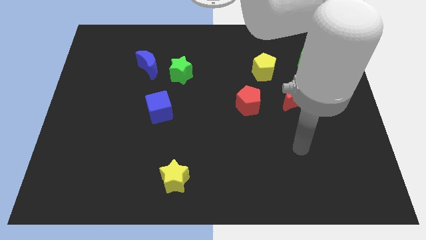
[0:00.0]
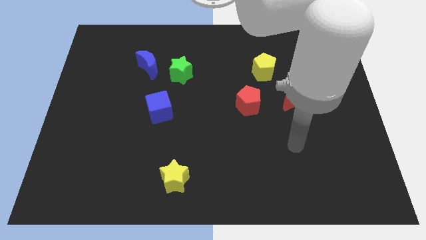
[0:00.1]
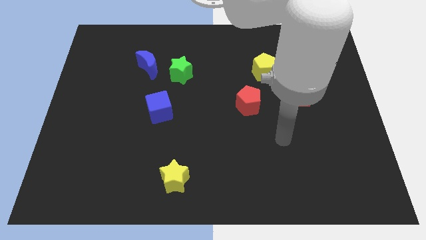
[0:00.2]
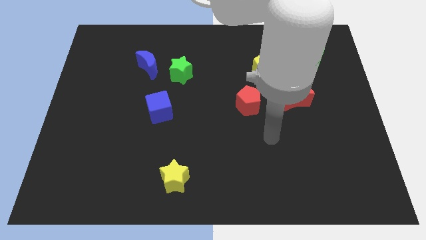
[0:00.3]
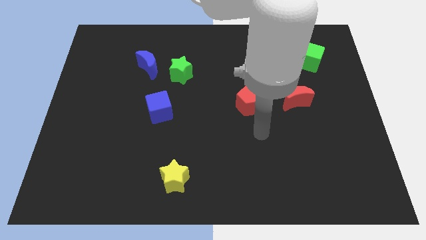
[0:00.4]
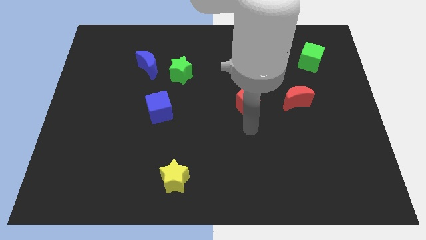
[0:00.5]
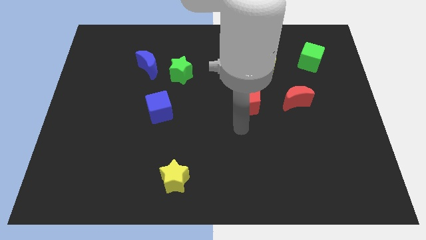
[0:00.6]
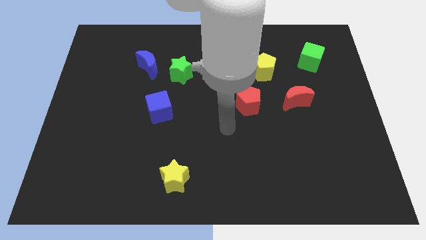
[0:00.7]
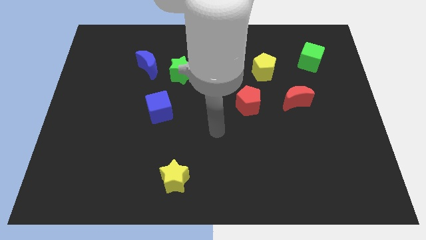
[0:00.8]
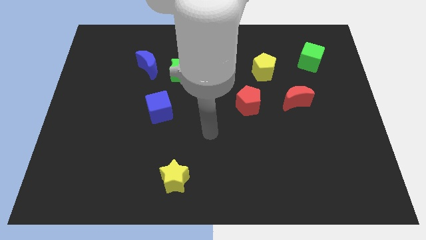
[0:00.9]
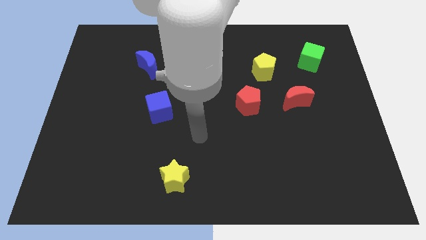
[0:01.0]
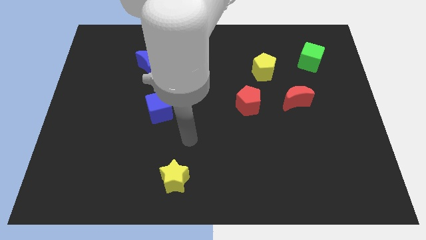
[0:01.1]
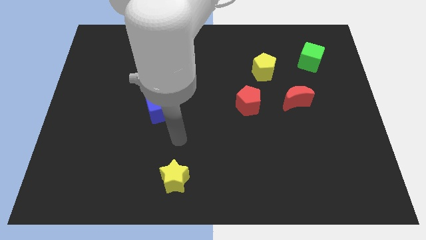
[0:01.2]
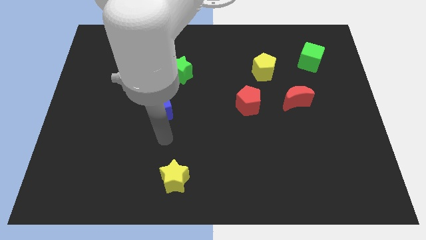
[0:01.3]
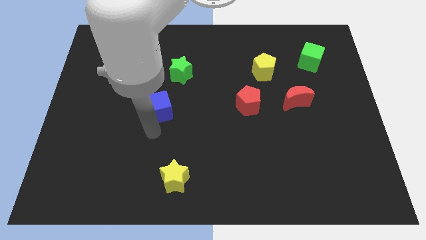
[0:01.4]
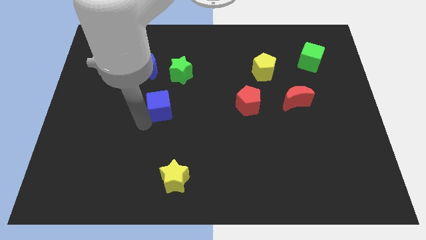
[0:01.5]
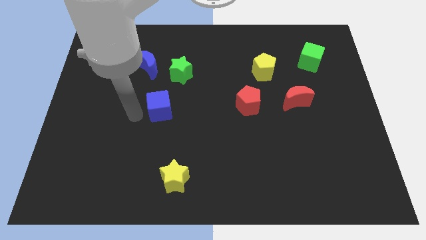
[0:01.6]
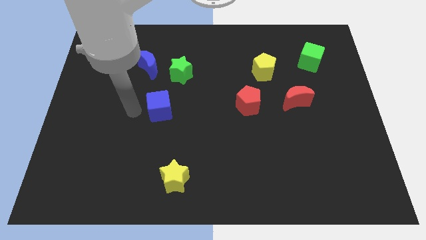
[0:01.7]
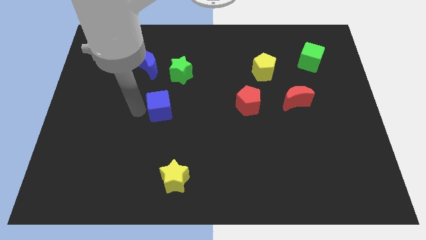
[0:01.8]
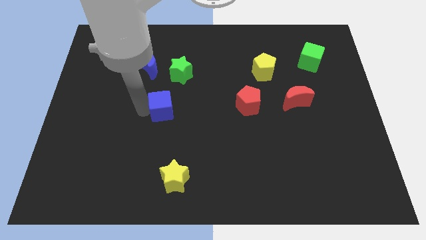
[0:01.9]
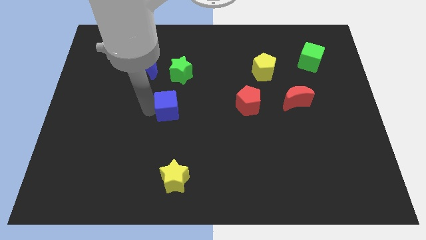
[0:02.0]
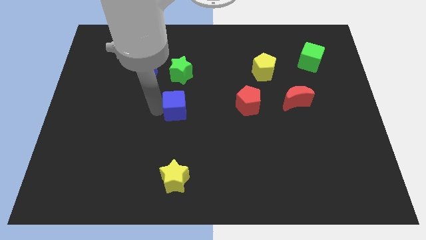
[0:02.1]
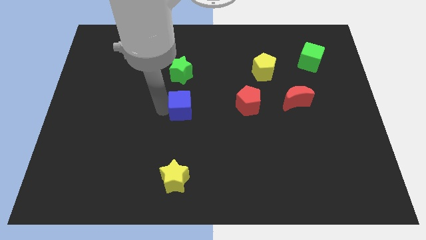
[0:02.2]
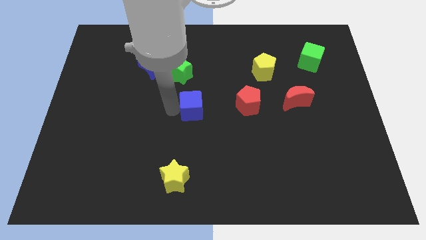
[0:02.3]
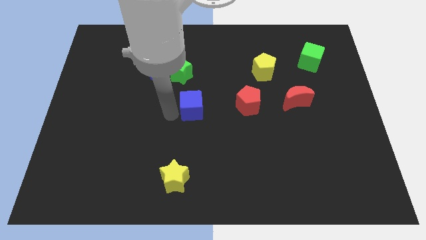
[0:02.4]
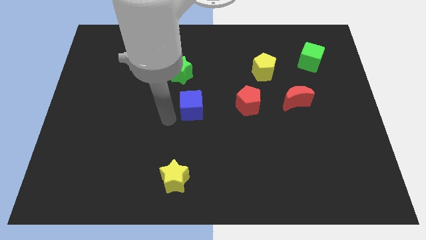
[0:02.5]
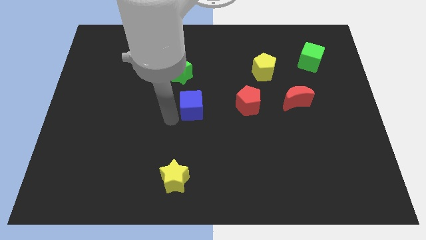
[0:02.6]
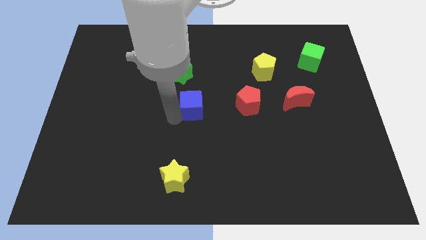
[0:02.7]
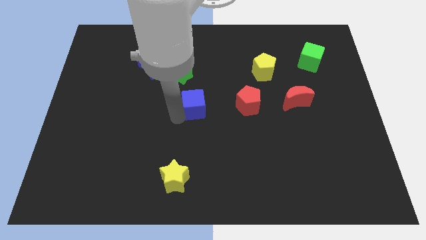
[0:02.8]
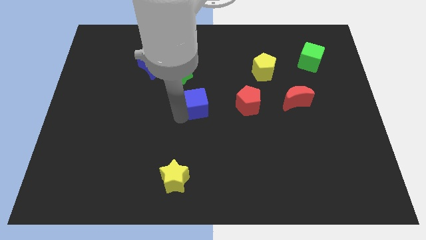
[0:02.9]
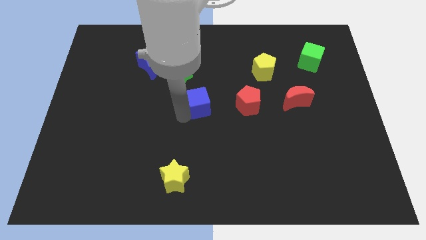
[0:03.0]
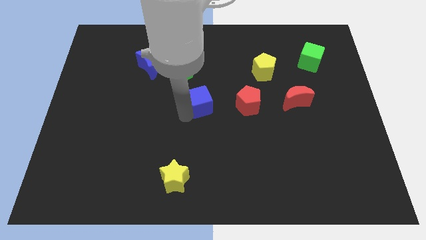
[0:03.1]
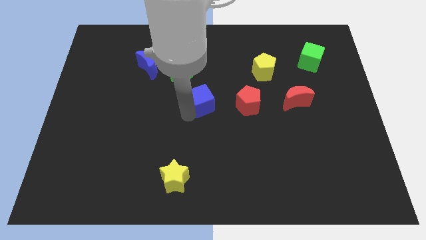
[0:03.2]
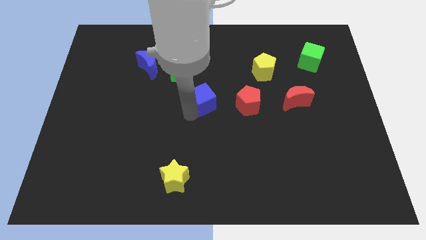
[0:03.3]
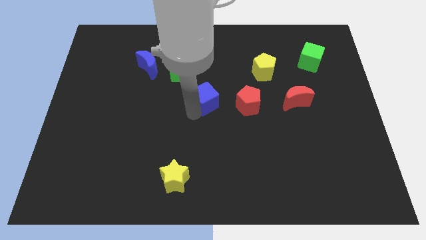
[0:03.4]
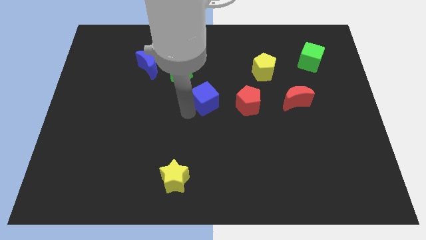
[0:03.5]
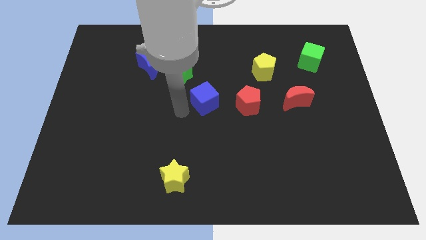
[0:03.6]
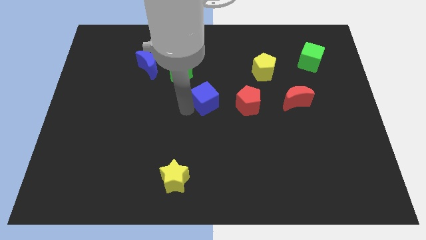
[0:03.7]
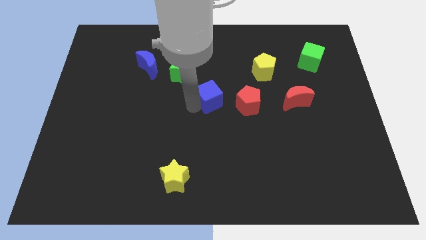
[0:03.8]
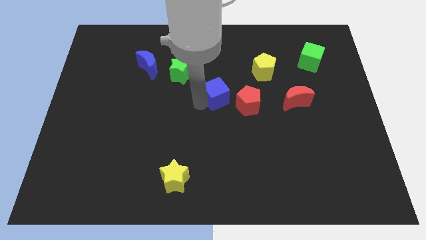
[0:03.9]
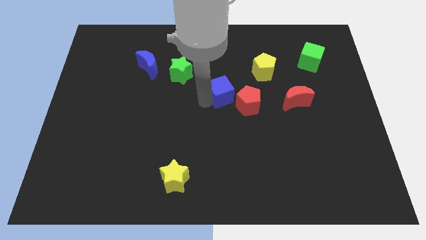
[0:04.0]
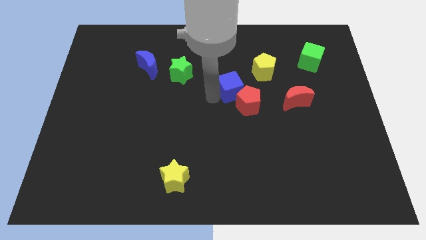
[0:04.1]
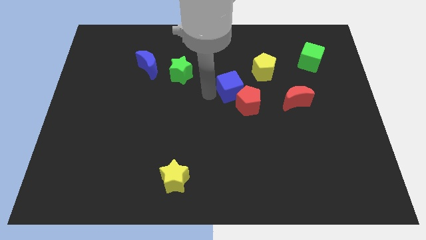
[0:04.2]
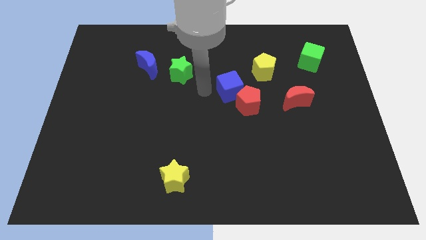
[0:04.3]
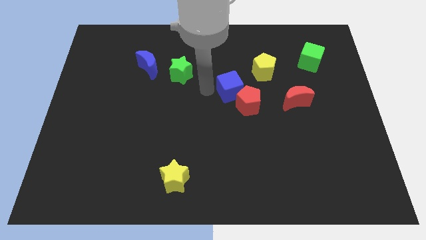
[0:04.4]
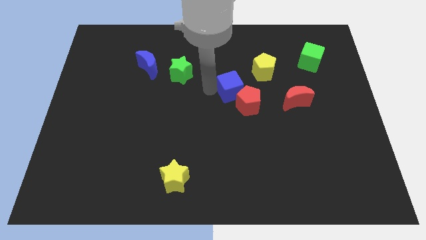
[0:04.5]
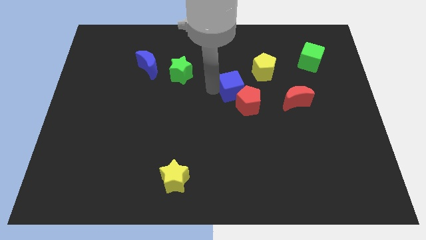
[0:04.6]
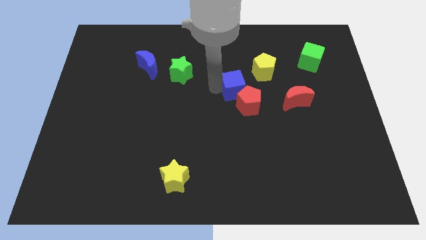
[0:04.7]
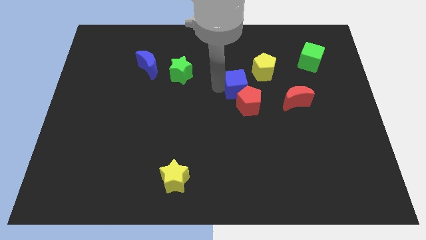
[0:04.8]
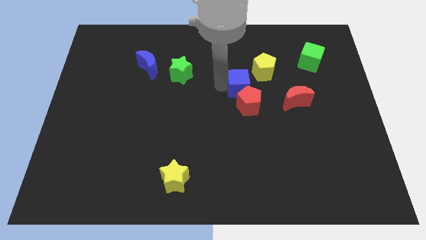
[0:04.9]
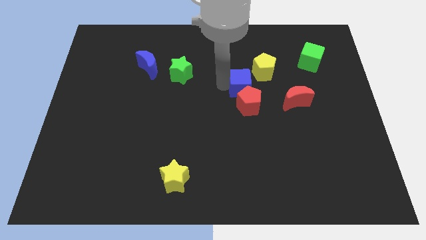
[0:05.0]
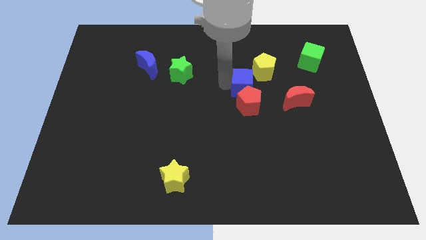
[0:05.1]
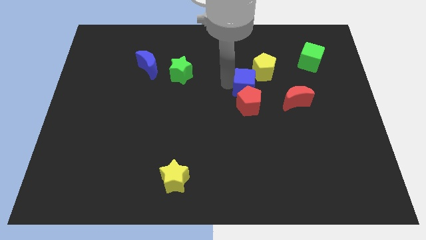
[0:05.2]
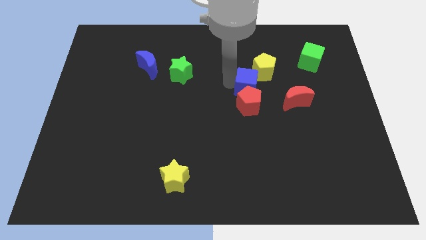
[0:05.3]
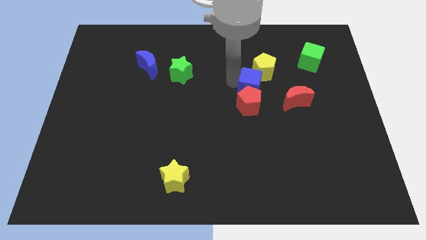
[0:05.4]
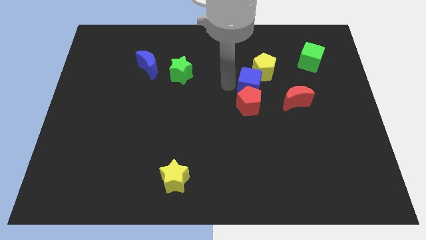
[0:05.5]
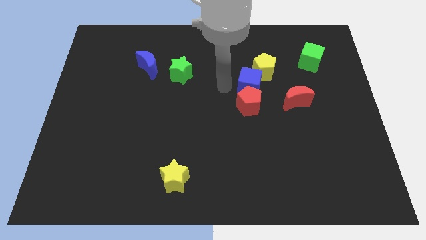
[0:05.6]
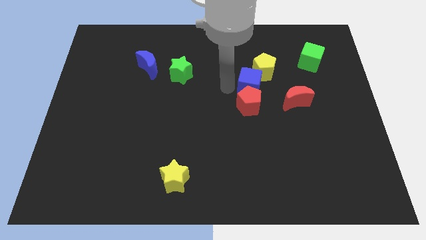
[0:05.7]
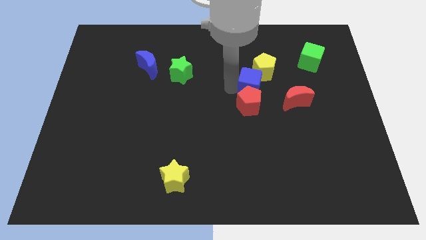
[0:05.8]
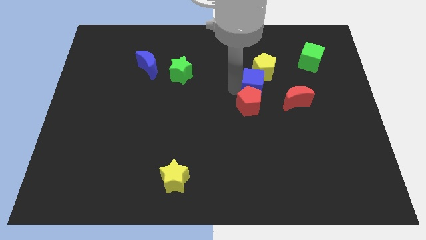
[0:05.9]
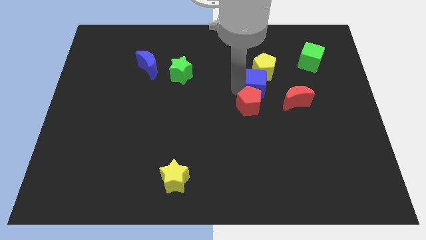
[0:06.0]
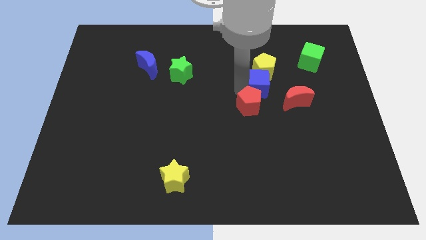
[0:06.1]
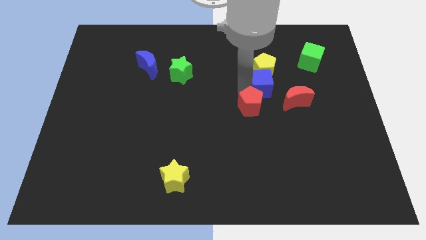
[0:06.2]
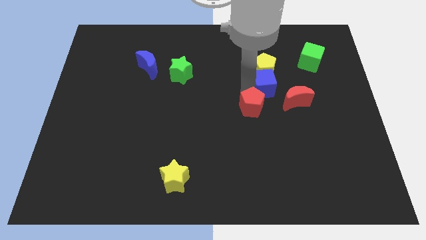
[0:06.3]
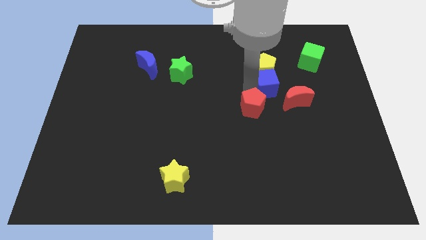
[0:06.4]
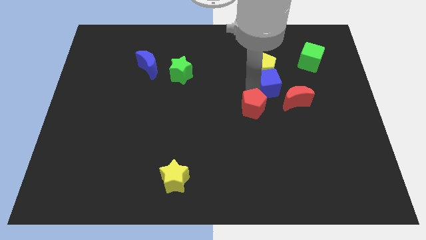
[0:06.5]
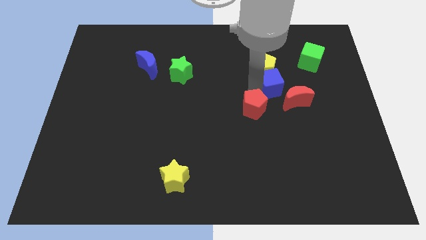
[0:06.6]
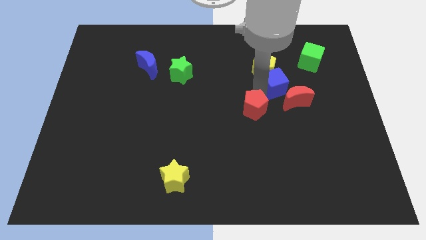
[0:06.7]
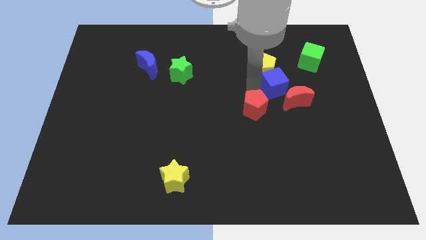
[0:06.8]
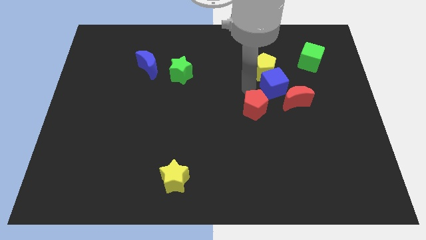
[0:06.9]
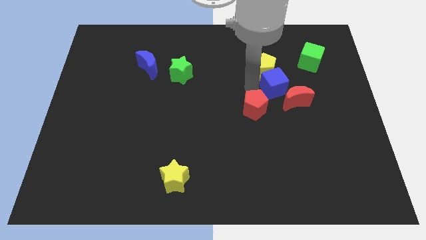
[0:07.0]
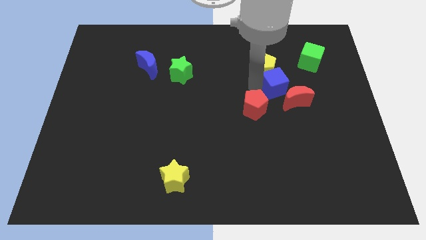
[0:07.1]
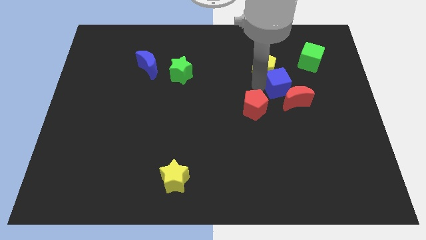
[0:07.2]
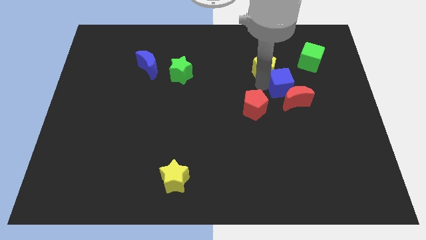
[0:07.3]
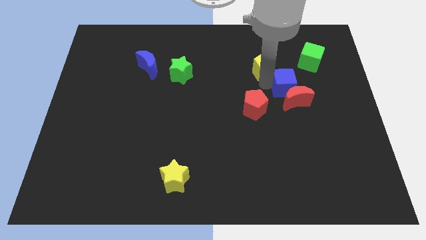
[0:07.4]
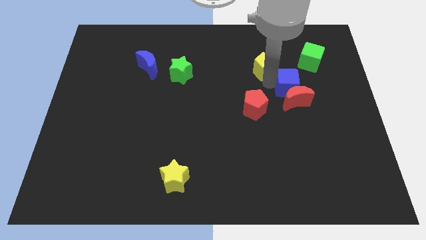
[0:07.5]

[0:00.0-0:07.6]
move the blue cube diagonally up and to the right of the red moon
